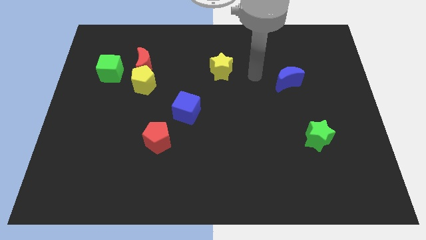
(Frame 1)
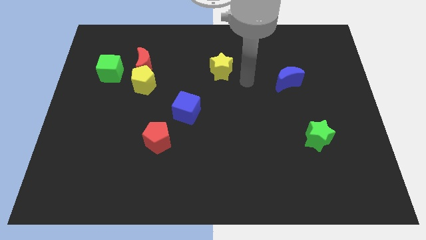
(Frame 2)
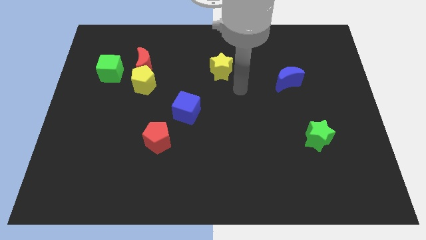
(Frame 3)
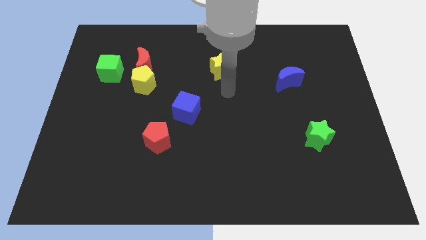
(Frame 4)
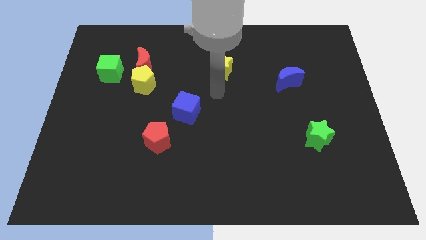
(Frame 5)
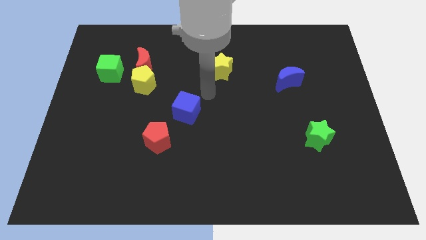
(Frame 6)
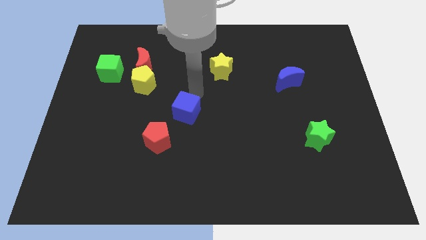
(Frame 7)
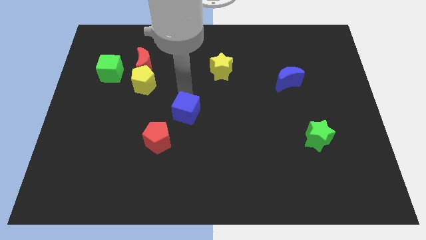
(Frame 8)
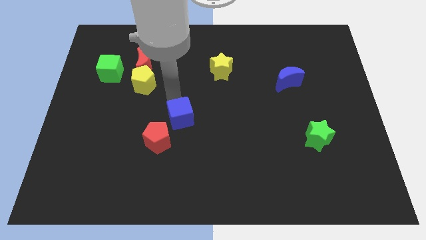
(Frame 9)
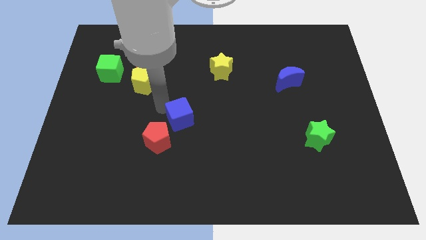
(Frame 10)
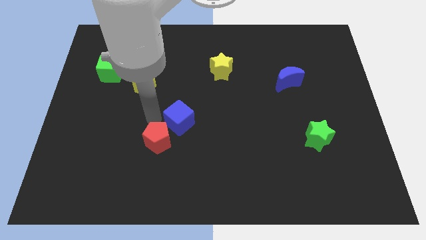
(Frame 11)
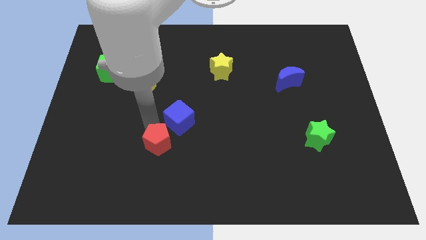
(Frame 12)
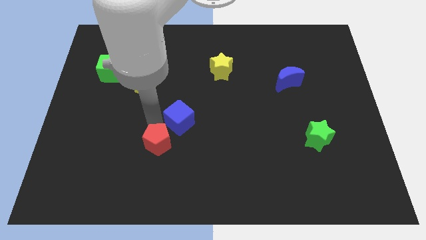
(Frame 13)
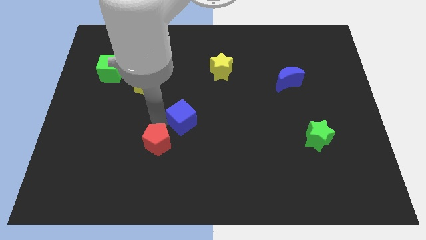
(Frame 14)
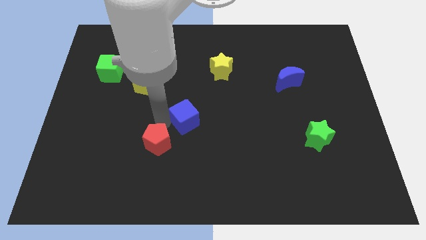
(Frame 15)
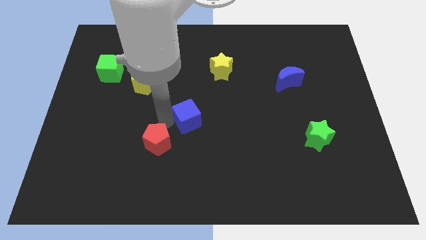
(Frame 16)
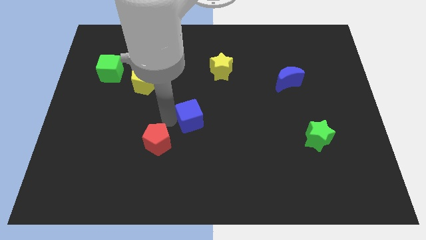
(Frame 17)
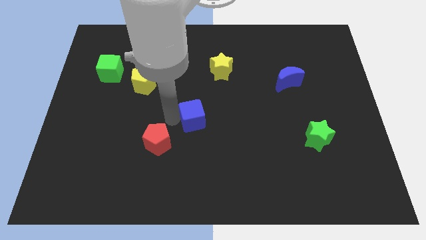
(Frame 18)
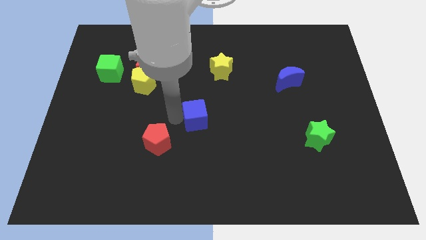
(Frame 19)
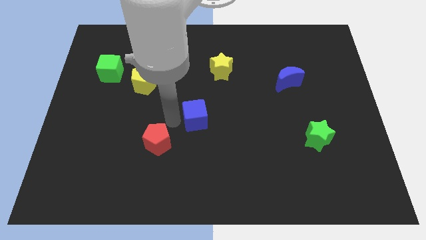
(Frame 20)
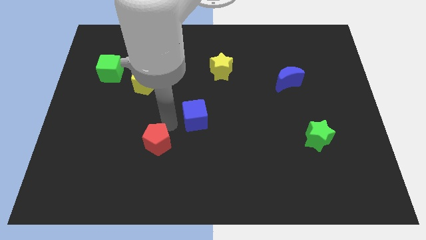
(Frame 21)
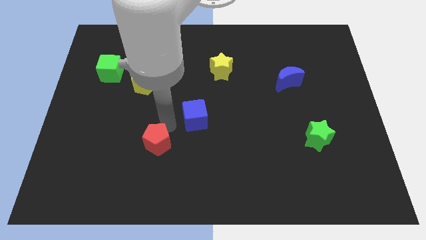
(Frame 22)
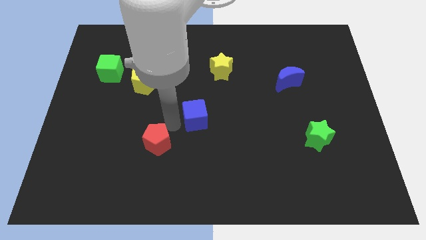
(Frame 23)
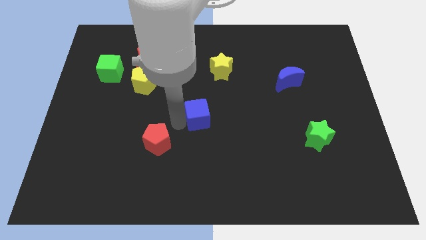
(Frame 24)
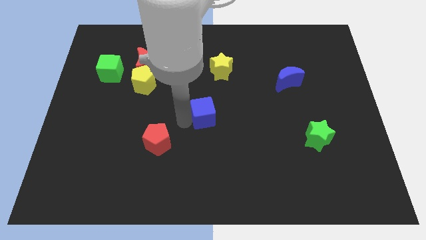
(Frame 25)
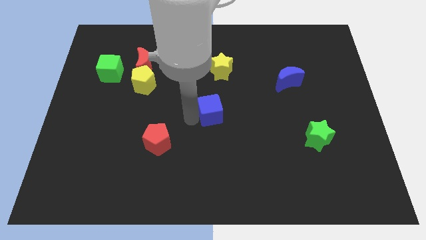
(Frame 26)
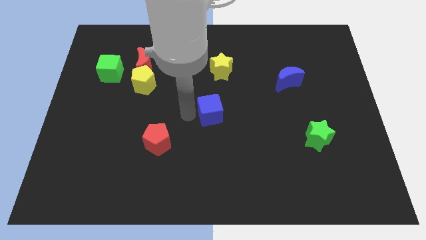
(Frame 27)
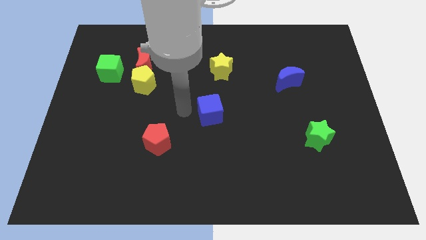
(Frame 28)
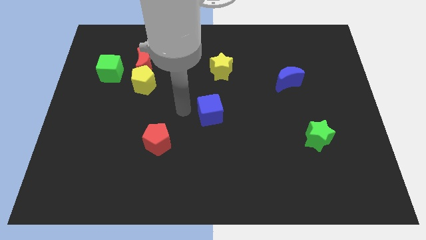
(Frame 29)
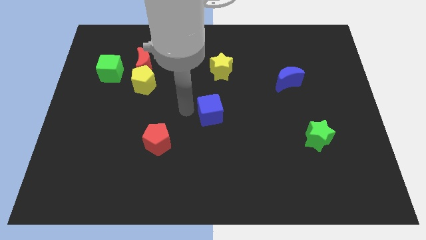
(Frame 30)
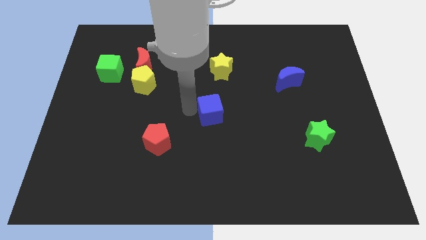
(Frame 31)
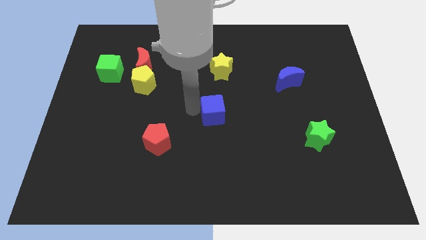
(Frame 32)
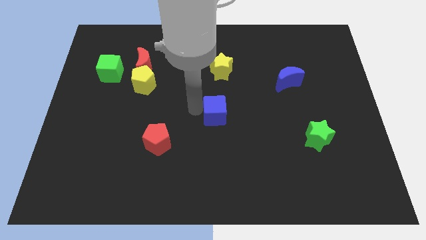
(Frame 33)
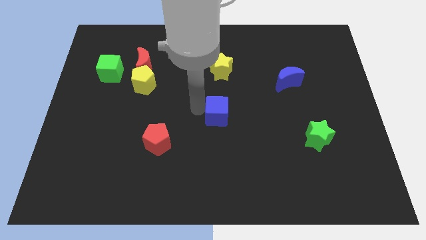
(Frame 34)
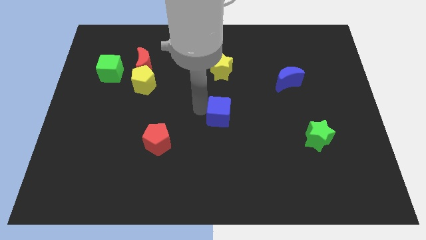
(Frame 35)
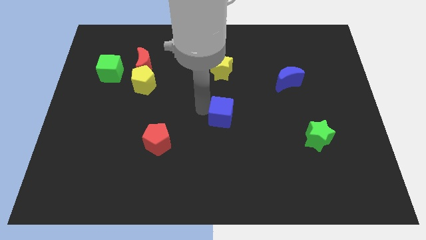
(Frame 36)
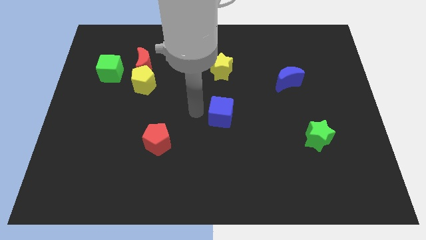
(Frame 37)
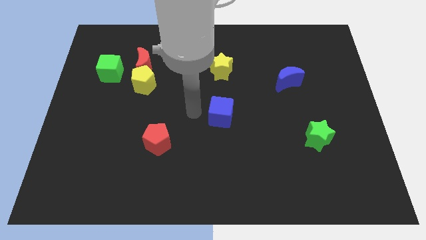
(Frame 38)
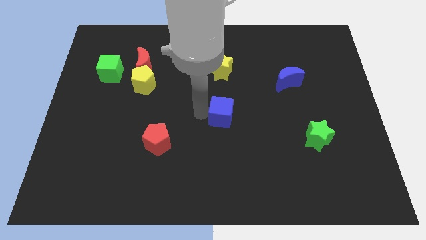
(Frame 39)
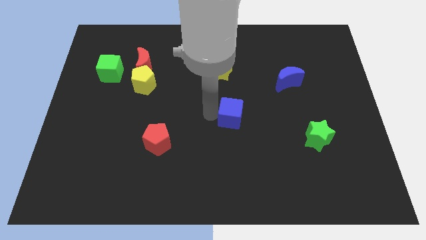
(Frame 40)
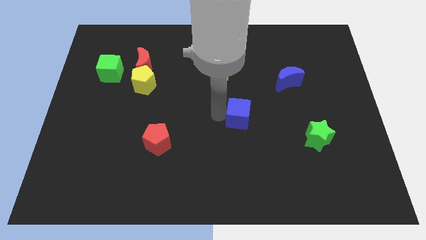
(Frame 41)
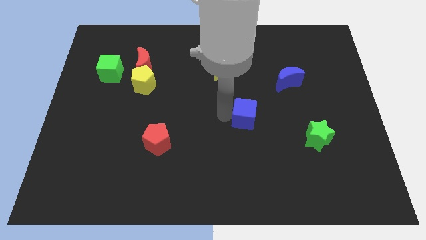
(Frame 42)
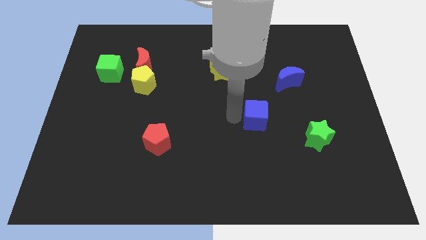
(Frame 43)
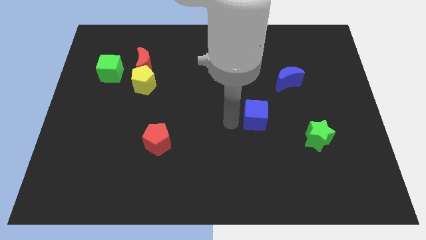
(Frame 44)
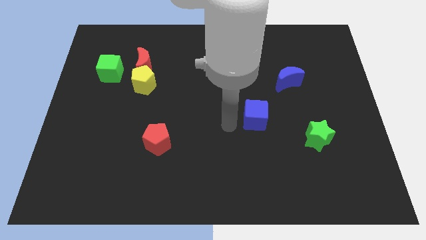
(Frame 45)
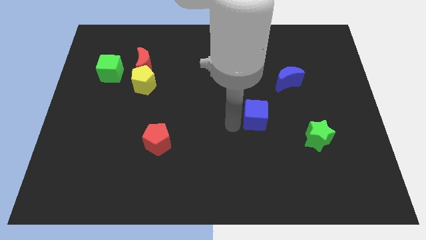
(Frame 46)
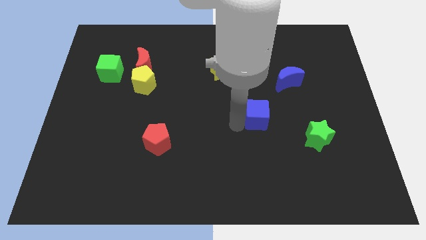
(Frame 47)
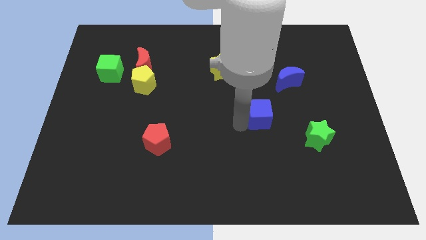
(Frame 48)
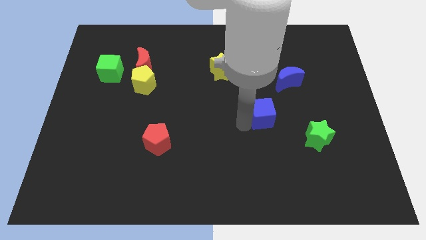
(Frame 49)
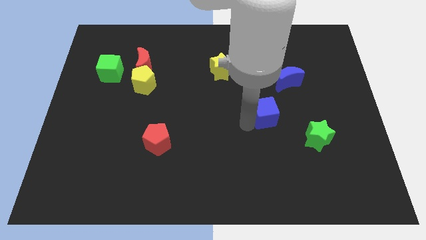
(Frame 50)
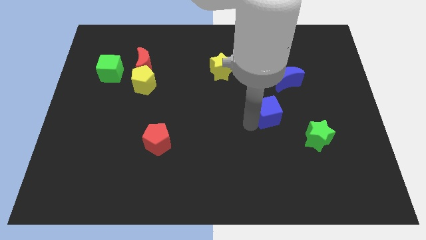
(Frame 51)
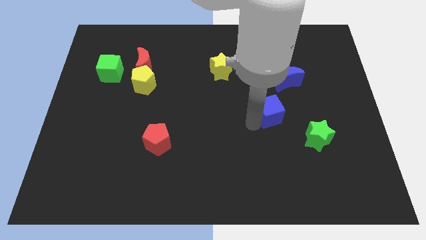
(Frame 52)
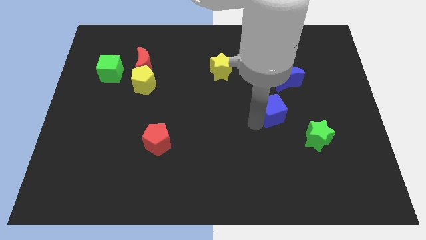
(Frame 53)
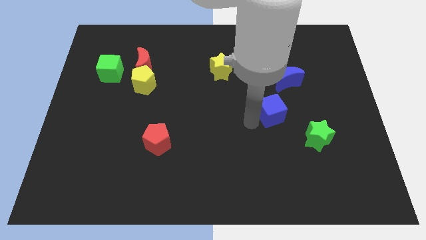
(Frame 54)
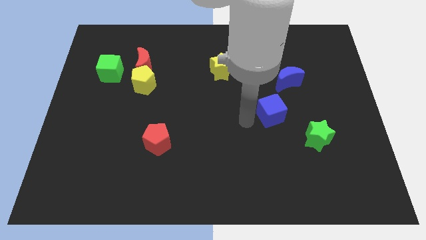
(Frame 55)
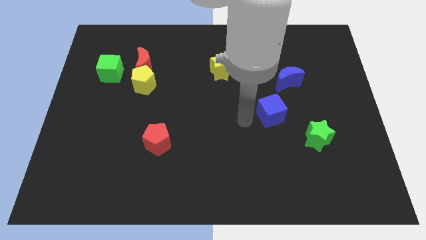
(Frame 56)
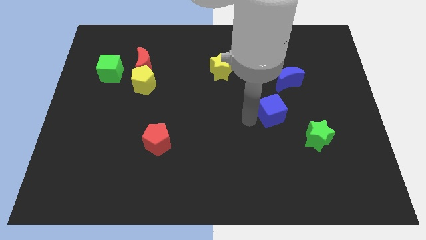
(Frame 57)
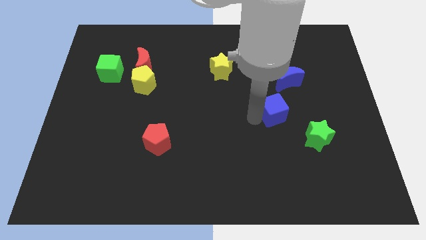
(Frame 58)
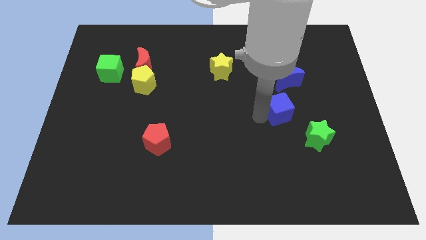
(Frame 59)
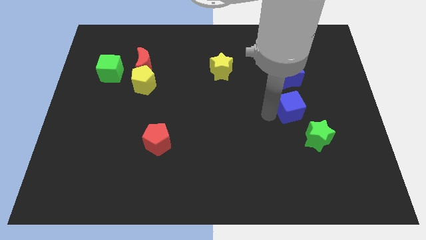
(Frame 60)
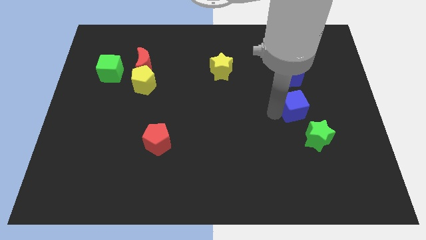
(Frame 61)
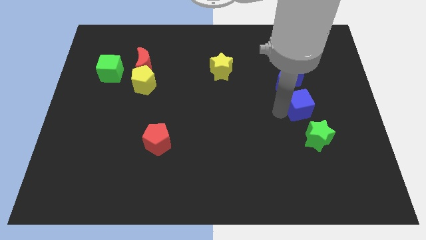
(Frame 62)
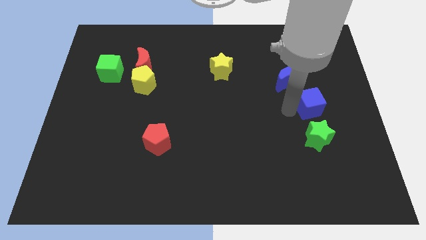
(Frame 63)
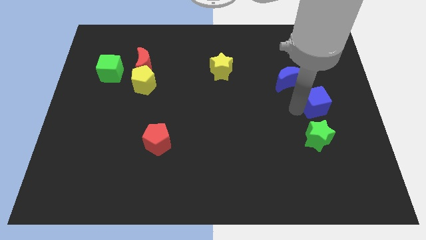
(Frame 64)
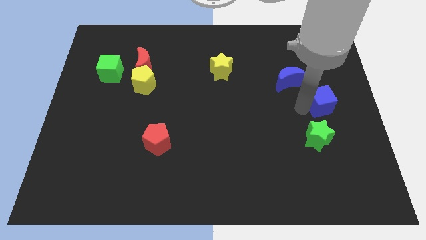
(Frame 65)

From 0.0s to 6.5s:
put the blue cube to the center right
